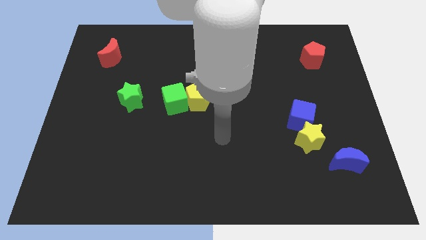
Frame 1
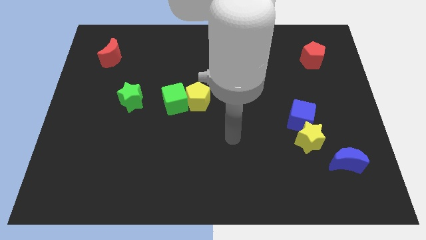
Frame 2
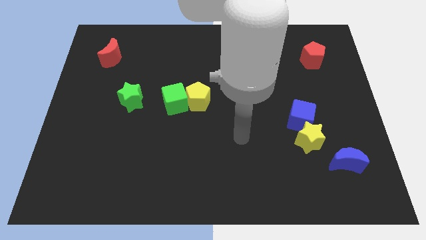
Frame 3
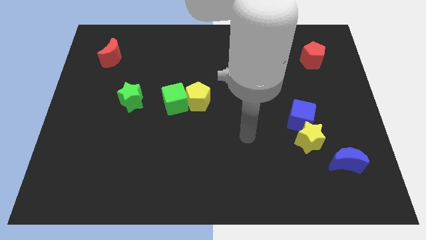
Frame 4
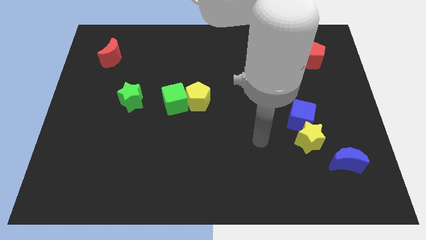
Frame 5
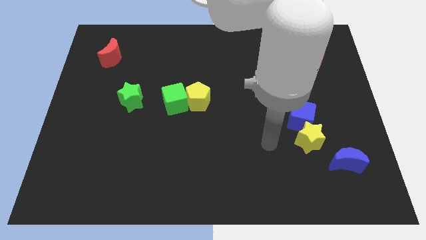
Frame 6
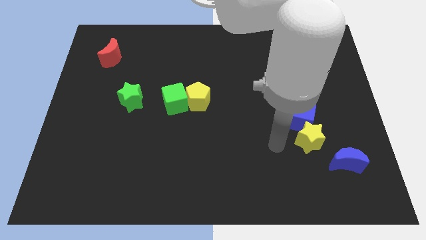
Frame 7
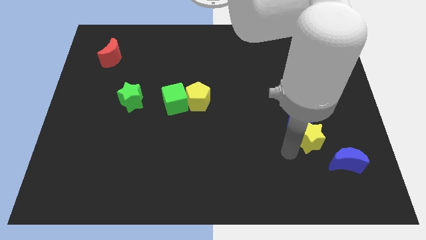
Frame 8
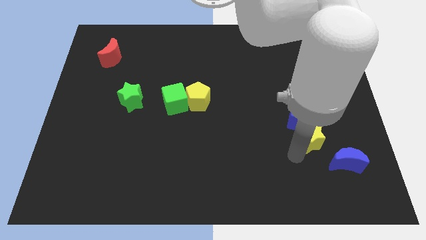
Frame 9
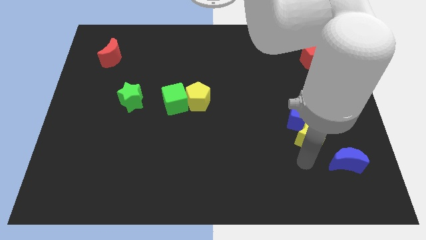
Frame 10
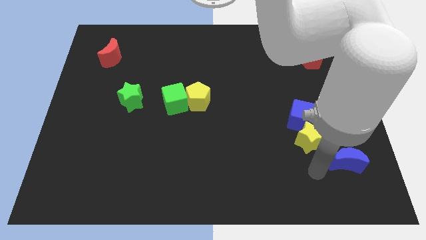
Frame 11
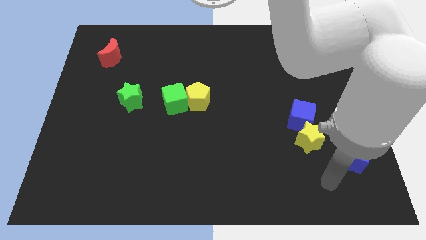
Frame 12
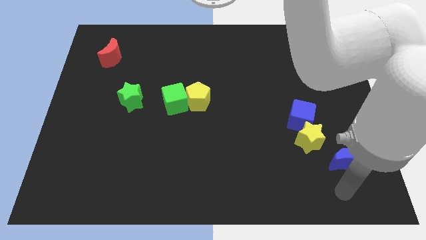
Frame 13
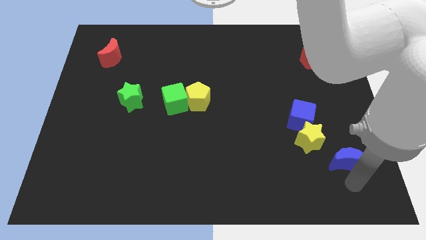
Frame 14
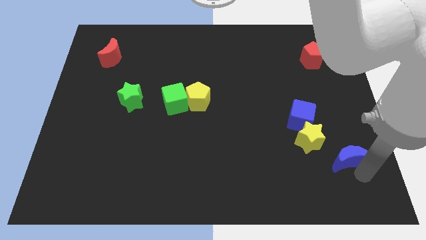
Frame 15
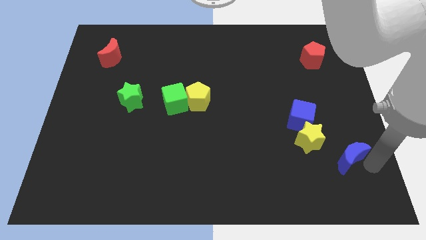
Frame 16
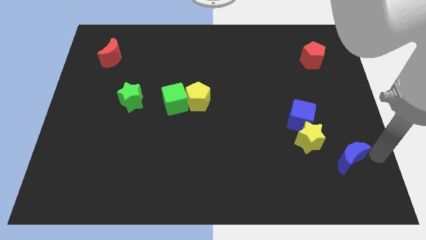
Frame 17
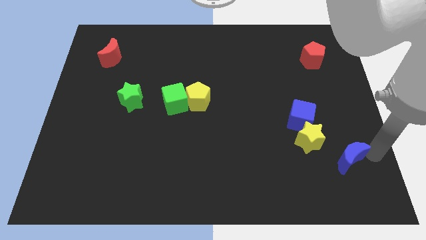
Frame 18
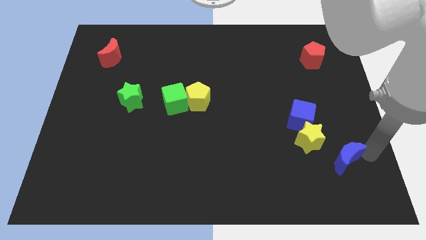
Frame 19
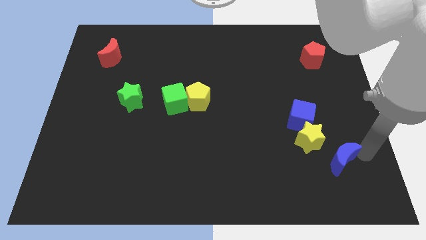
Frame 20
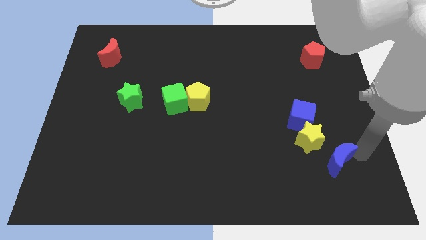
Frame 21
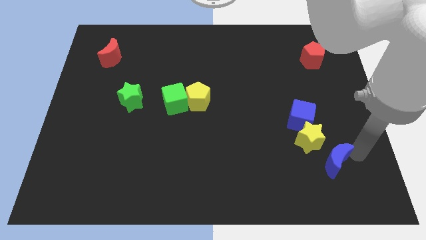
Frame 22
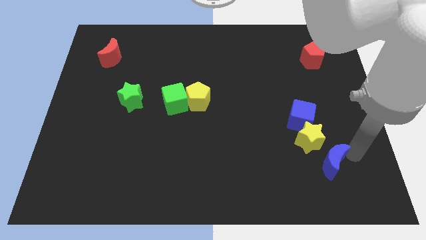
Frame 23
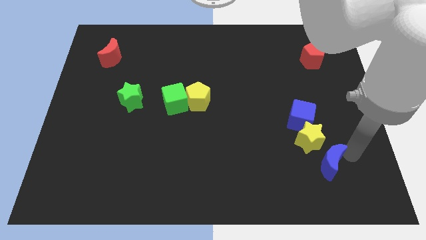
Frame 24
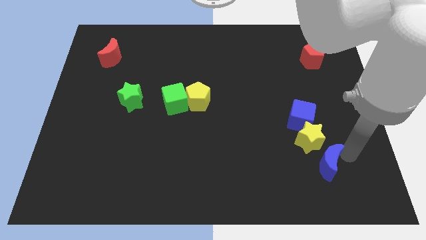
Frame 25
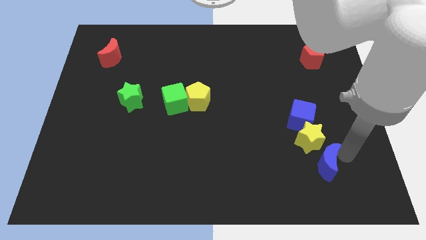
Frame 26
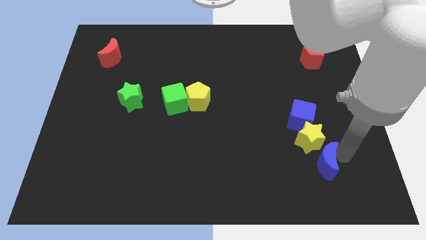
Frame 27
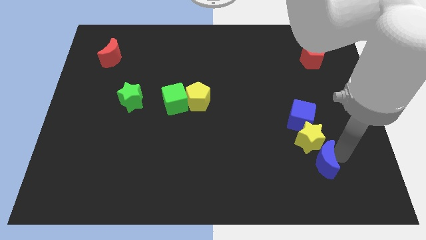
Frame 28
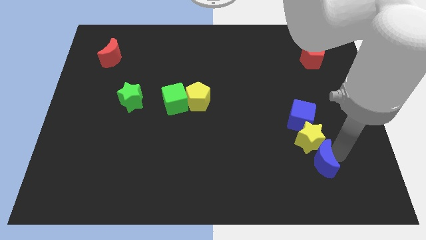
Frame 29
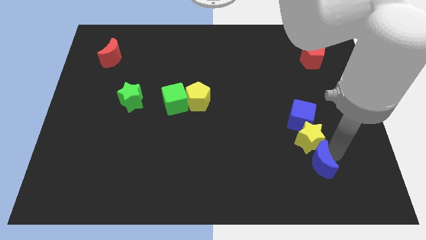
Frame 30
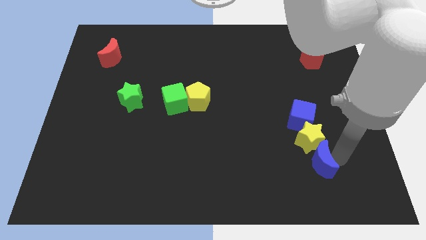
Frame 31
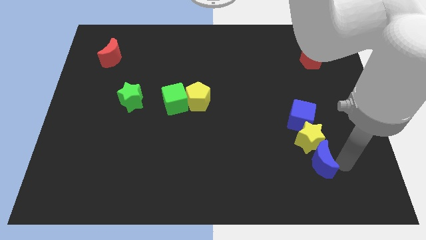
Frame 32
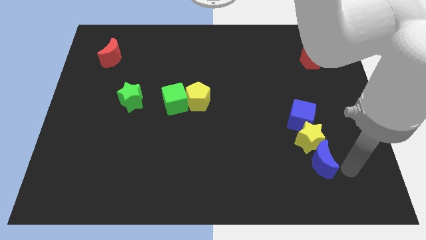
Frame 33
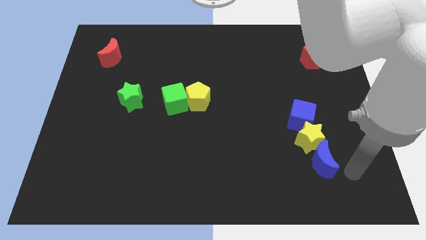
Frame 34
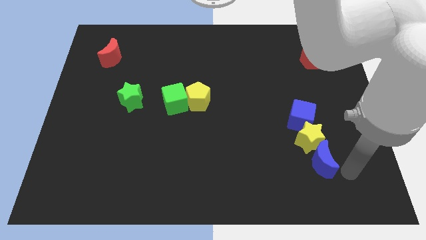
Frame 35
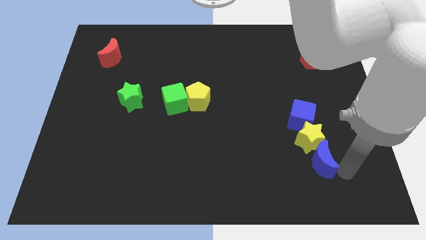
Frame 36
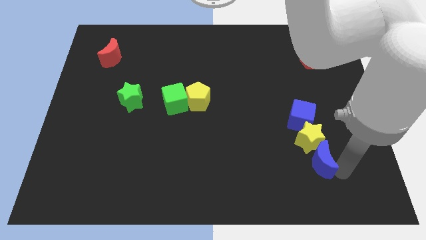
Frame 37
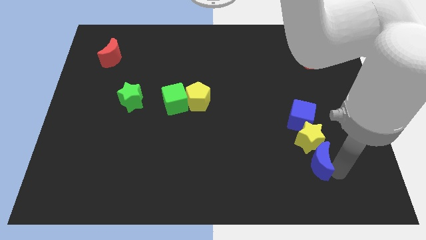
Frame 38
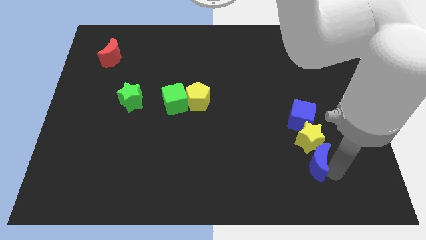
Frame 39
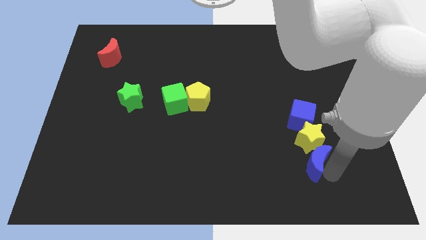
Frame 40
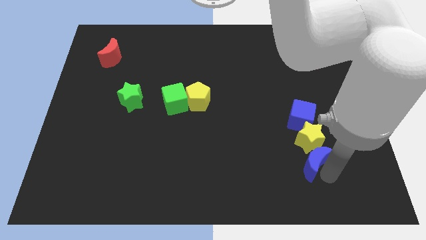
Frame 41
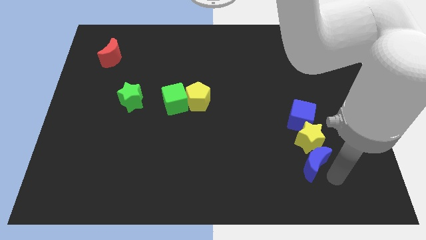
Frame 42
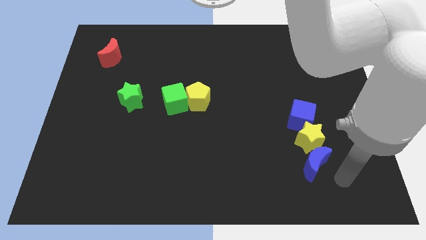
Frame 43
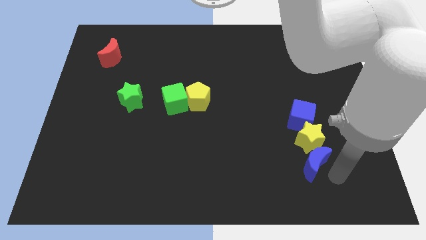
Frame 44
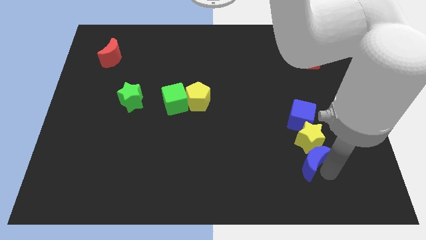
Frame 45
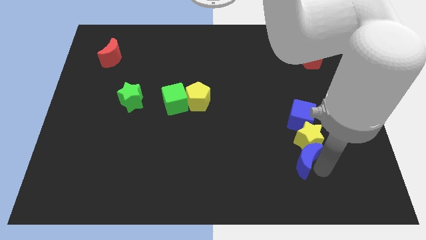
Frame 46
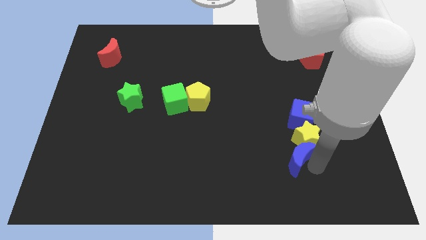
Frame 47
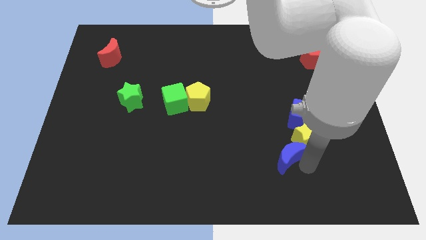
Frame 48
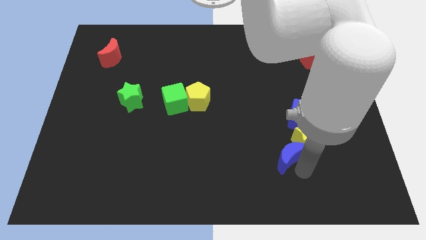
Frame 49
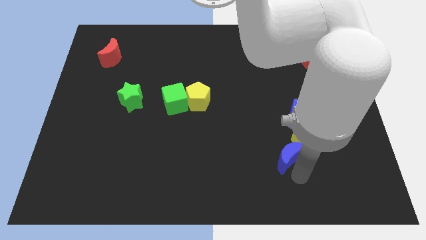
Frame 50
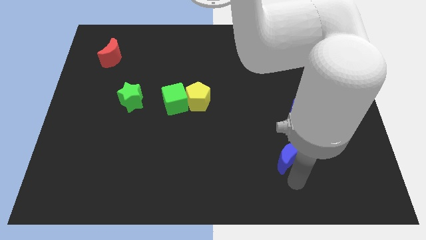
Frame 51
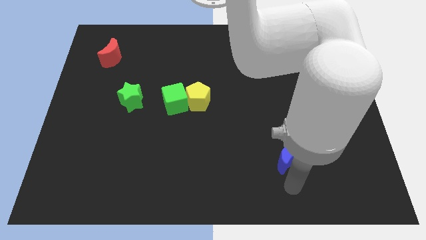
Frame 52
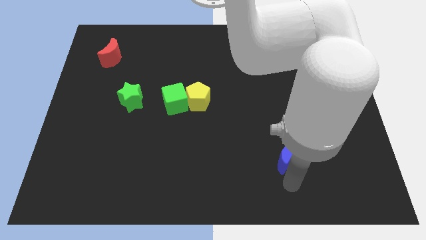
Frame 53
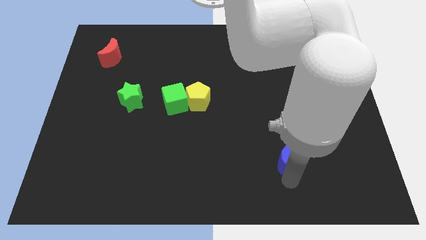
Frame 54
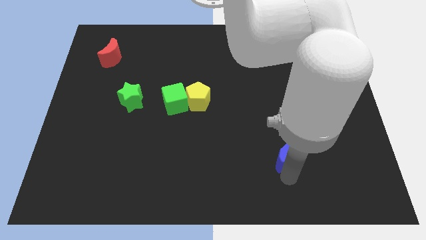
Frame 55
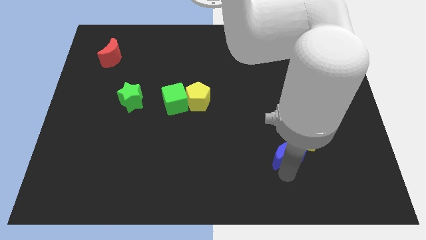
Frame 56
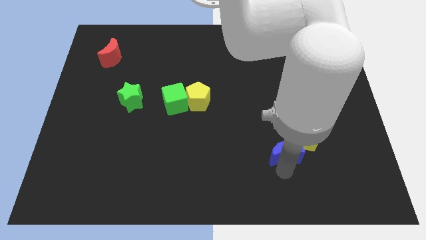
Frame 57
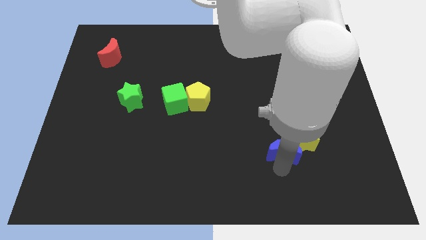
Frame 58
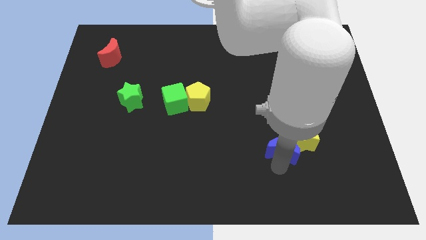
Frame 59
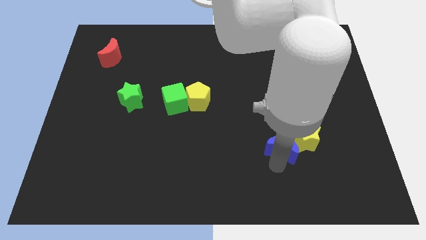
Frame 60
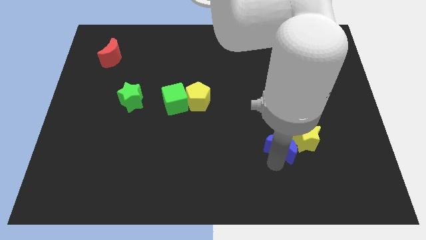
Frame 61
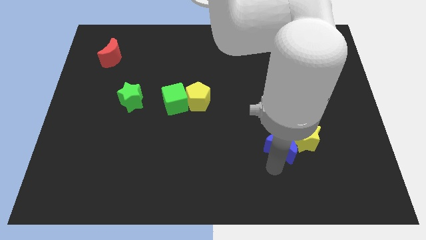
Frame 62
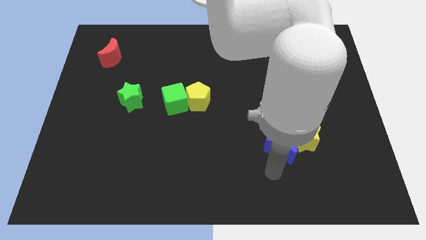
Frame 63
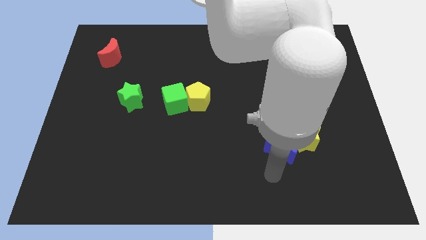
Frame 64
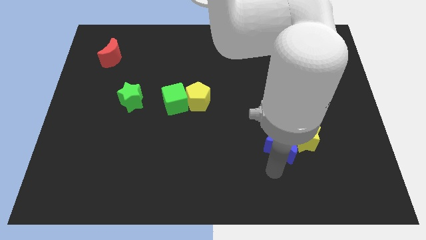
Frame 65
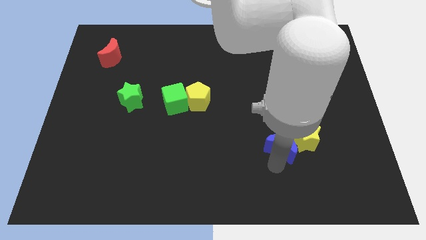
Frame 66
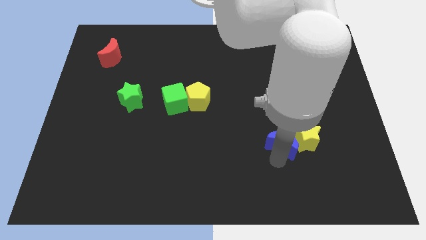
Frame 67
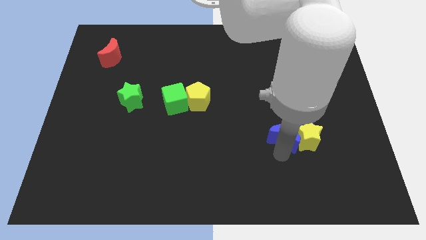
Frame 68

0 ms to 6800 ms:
put the blue moon to the top left of the yellow star
